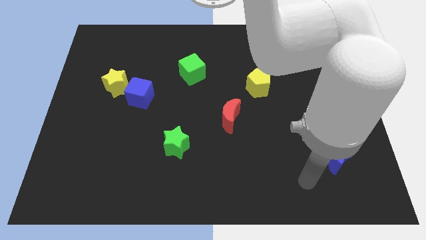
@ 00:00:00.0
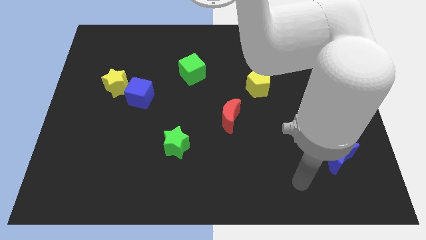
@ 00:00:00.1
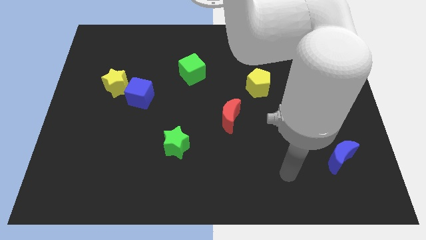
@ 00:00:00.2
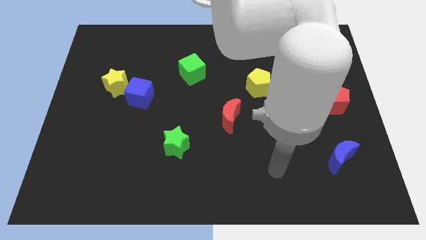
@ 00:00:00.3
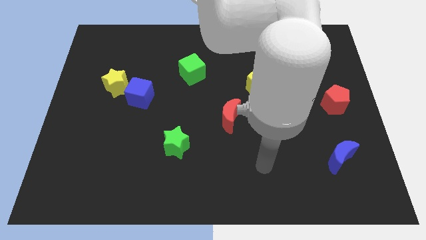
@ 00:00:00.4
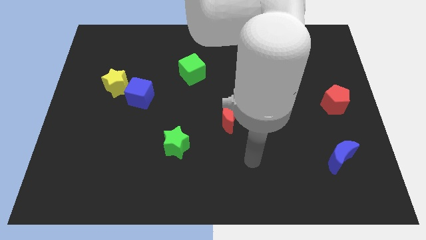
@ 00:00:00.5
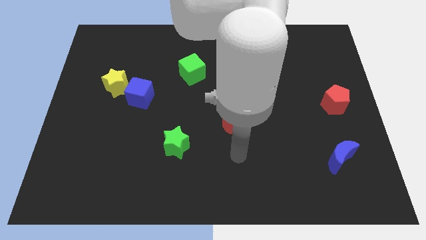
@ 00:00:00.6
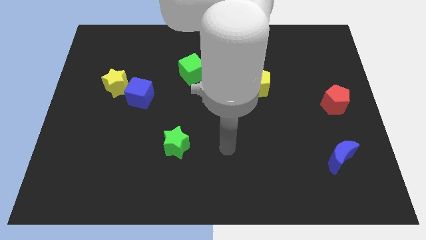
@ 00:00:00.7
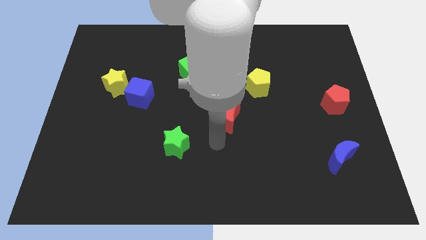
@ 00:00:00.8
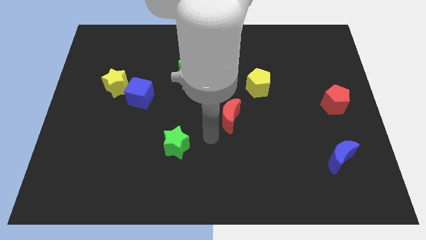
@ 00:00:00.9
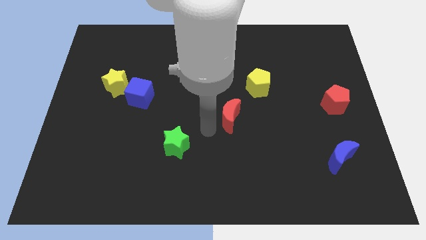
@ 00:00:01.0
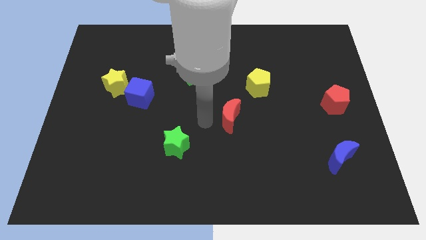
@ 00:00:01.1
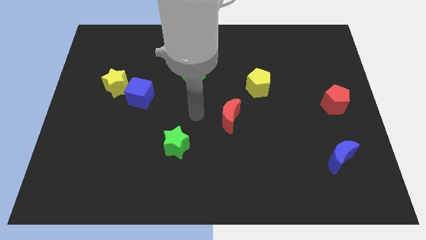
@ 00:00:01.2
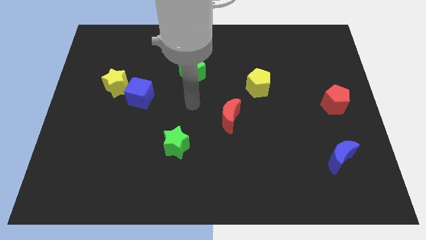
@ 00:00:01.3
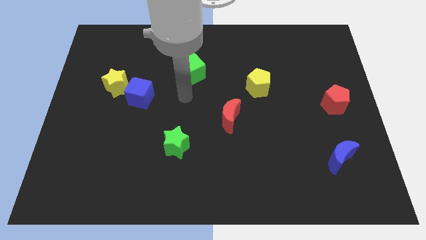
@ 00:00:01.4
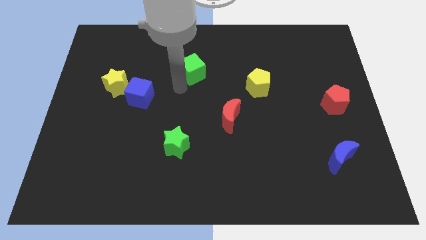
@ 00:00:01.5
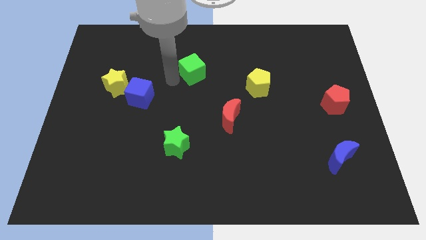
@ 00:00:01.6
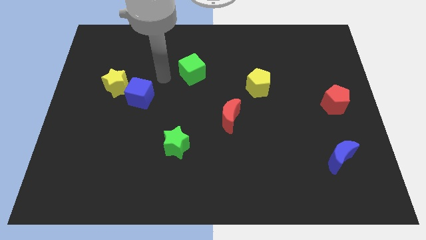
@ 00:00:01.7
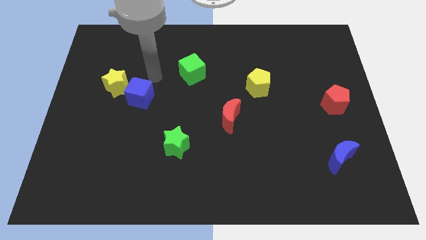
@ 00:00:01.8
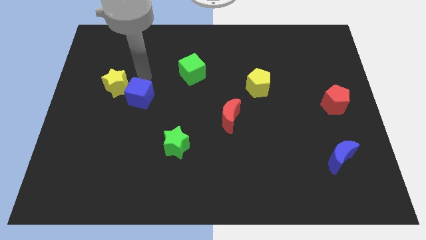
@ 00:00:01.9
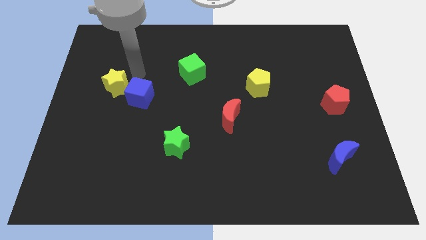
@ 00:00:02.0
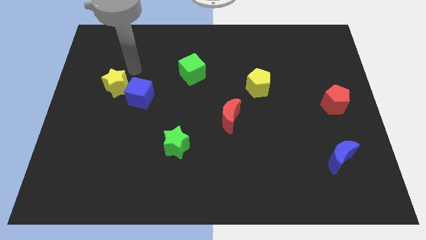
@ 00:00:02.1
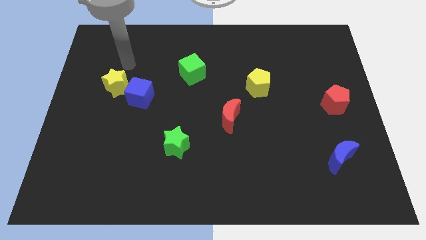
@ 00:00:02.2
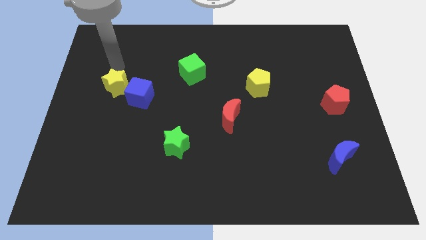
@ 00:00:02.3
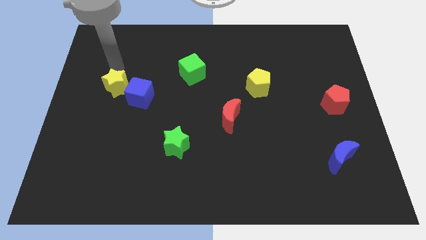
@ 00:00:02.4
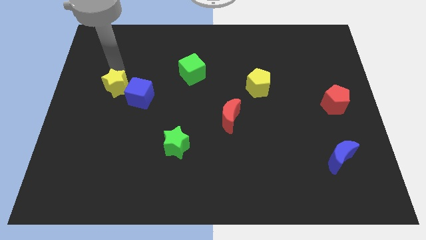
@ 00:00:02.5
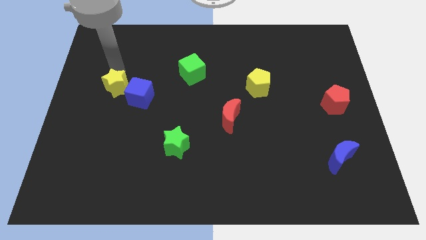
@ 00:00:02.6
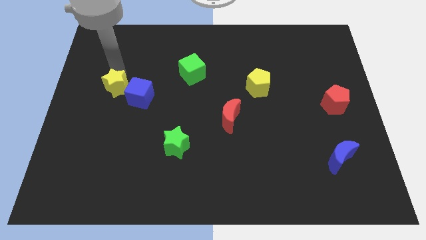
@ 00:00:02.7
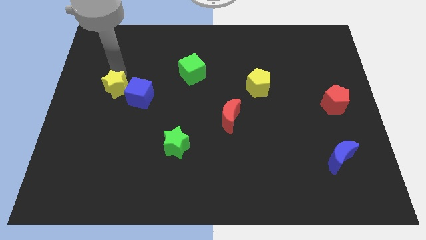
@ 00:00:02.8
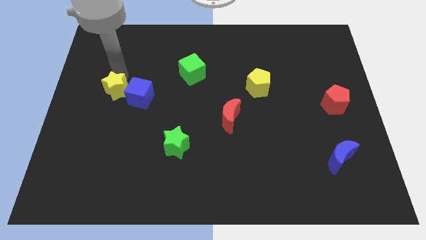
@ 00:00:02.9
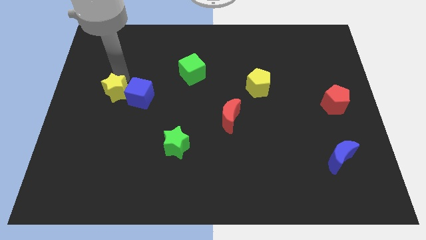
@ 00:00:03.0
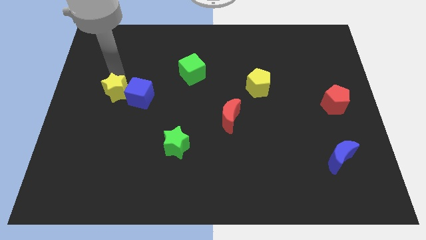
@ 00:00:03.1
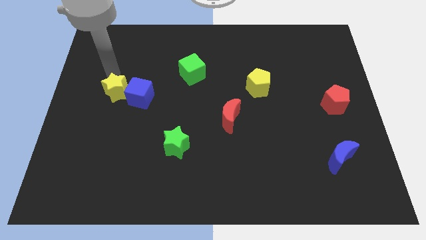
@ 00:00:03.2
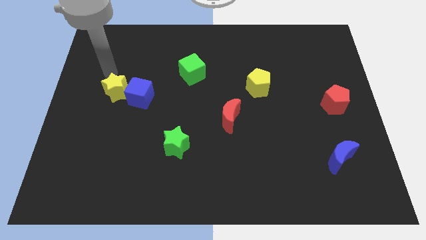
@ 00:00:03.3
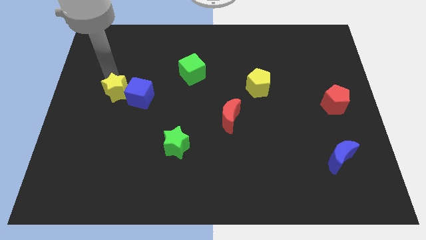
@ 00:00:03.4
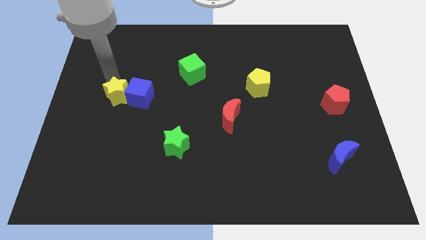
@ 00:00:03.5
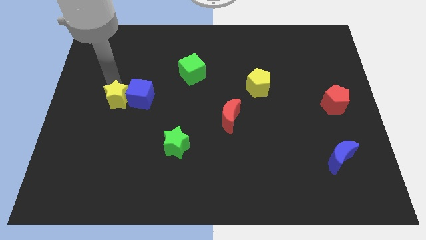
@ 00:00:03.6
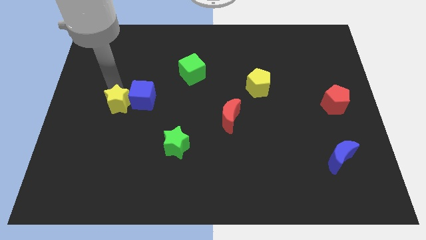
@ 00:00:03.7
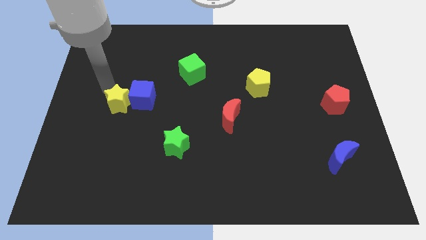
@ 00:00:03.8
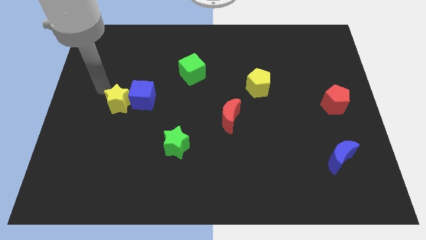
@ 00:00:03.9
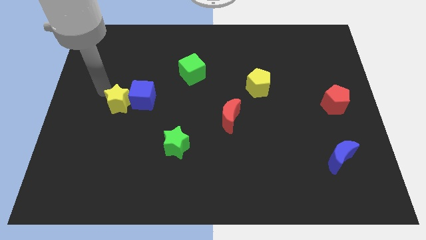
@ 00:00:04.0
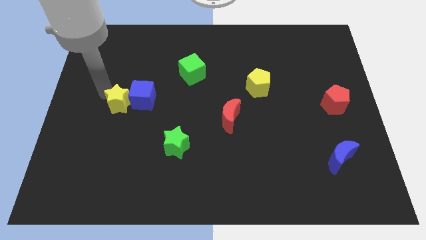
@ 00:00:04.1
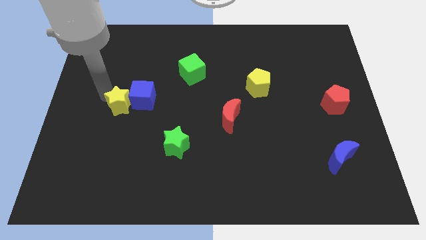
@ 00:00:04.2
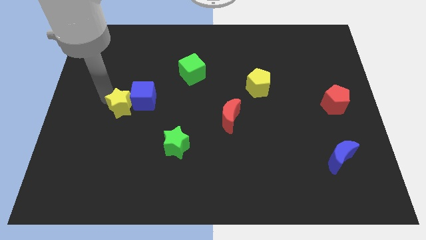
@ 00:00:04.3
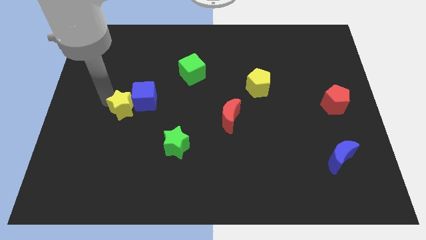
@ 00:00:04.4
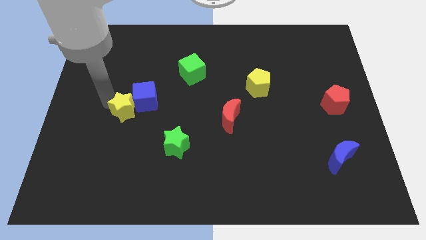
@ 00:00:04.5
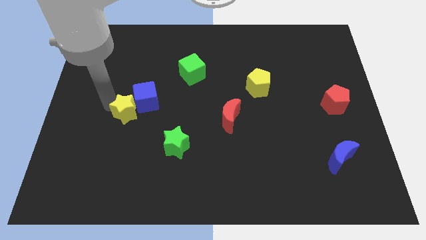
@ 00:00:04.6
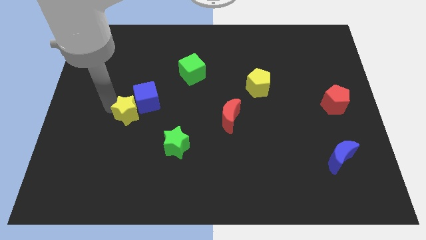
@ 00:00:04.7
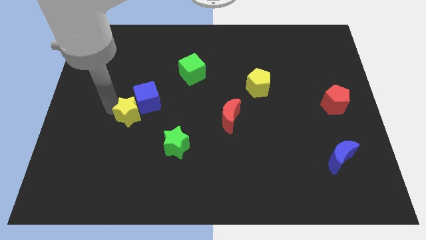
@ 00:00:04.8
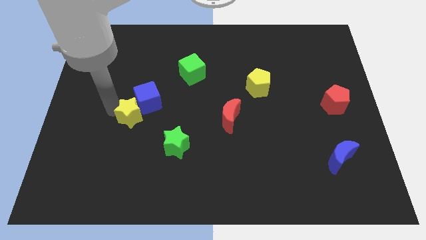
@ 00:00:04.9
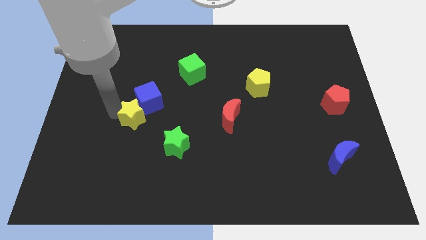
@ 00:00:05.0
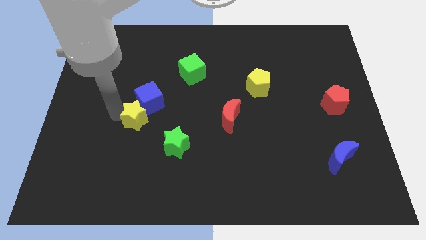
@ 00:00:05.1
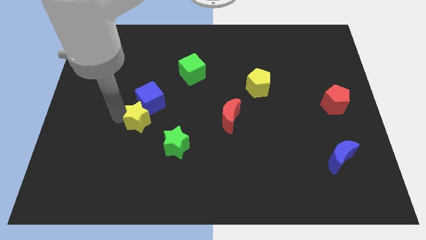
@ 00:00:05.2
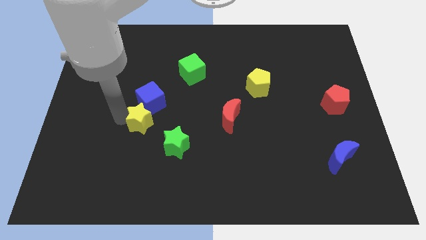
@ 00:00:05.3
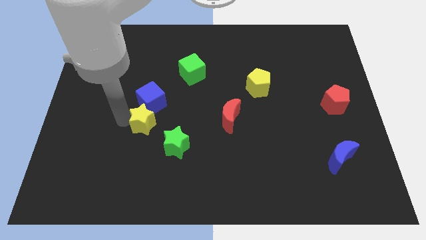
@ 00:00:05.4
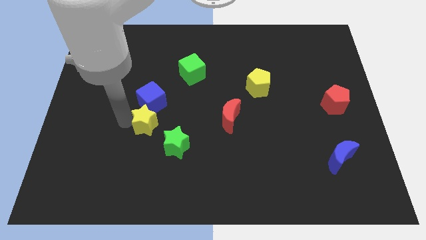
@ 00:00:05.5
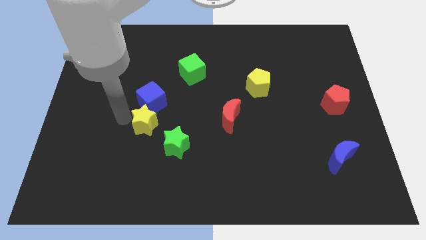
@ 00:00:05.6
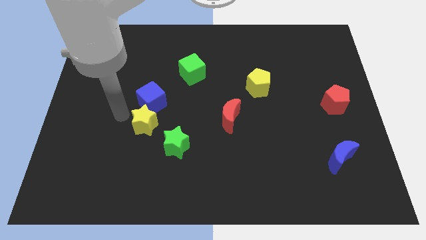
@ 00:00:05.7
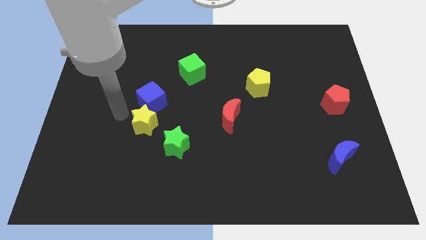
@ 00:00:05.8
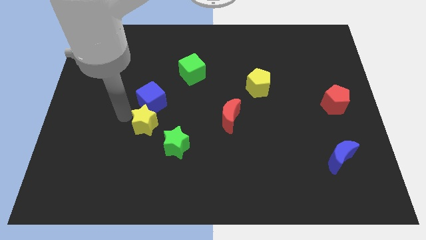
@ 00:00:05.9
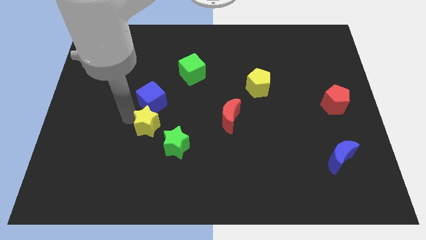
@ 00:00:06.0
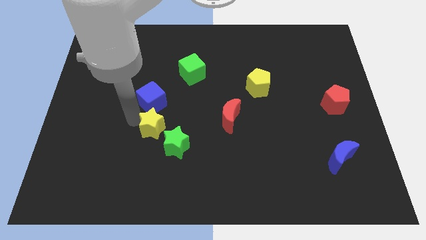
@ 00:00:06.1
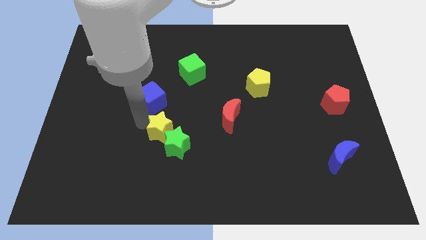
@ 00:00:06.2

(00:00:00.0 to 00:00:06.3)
push the yellow star towards the green star
